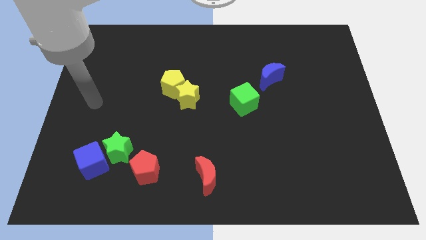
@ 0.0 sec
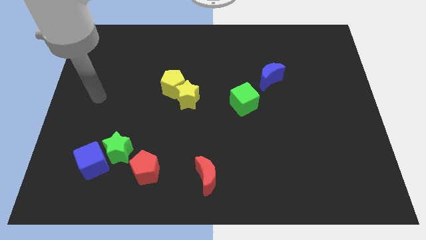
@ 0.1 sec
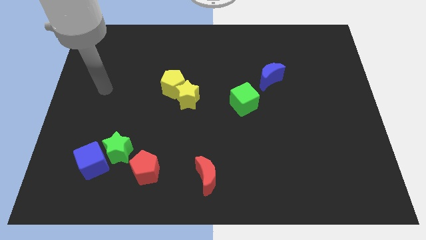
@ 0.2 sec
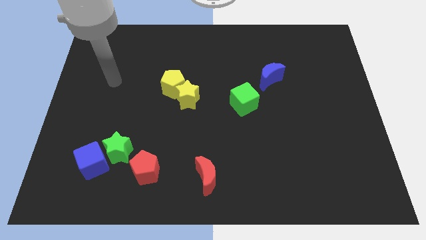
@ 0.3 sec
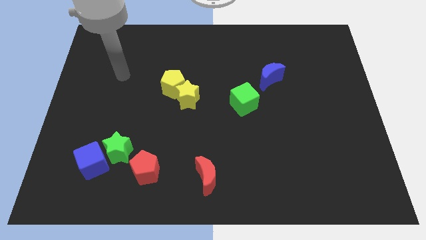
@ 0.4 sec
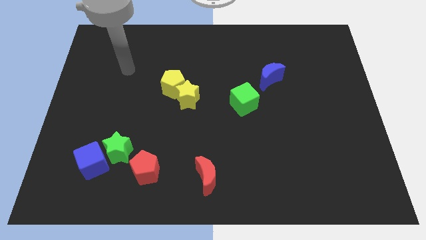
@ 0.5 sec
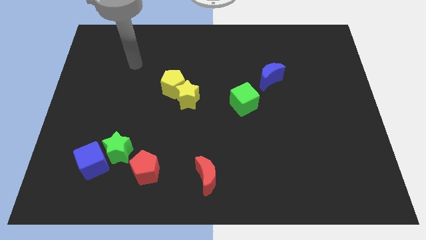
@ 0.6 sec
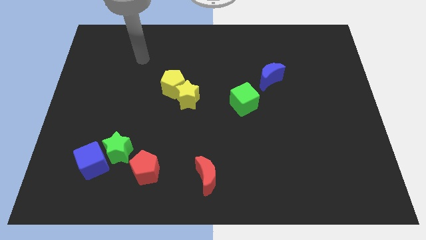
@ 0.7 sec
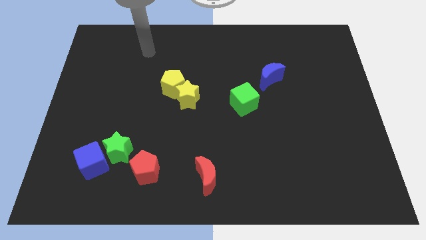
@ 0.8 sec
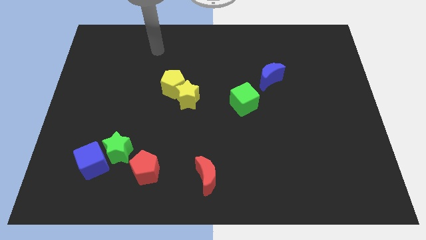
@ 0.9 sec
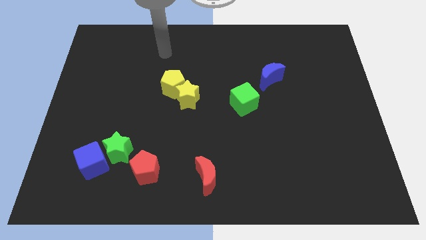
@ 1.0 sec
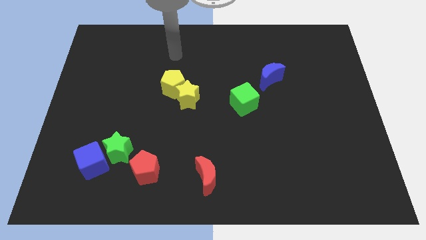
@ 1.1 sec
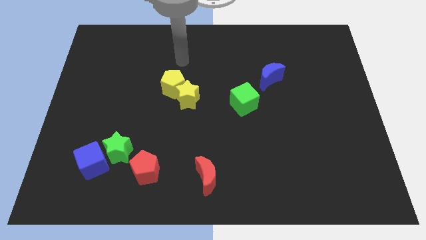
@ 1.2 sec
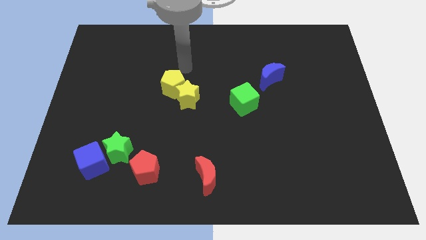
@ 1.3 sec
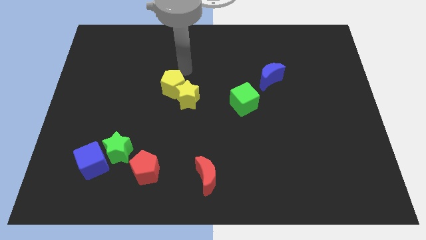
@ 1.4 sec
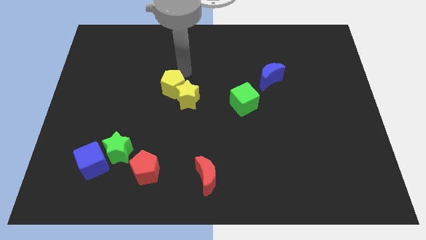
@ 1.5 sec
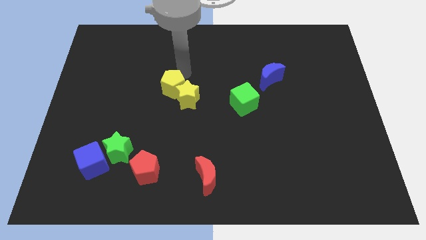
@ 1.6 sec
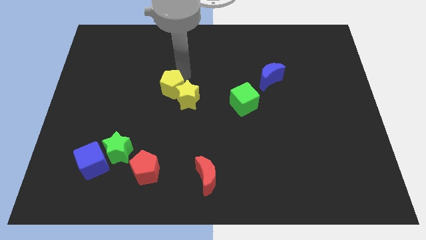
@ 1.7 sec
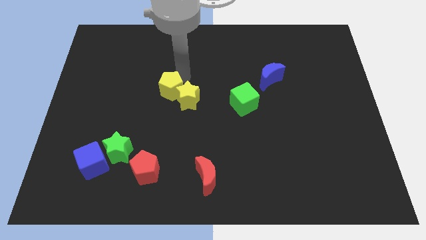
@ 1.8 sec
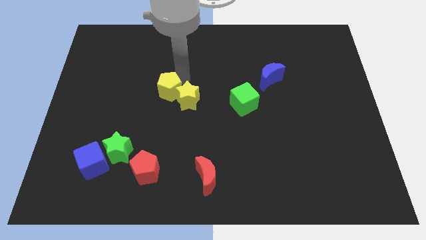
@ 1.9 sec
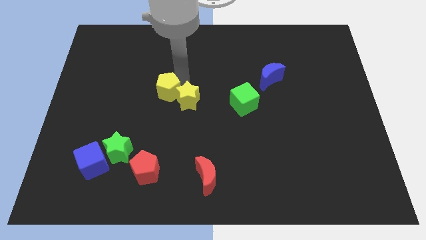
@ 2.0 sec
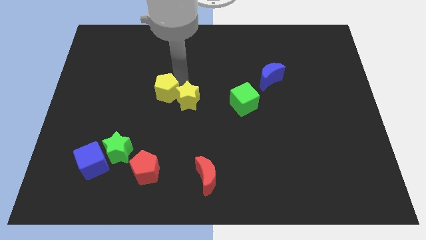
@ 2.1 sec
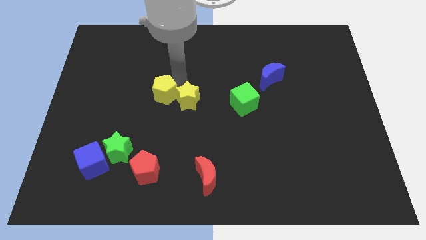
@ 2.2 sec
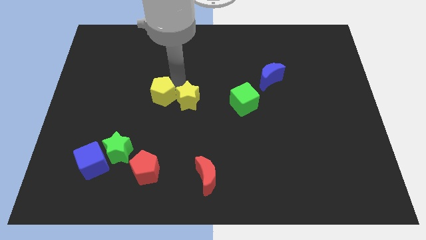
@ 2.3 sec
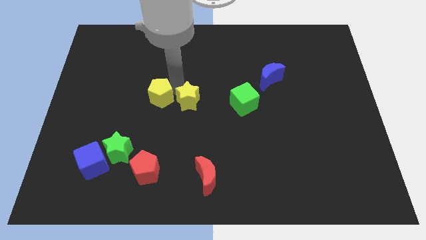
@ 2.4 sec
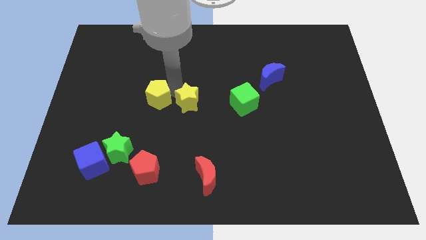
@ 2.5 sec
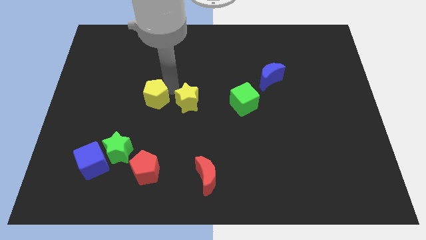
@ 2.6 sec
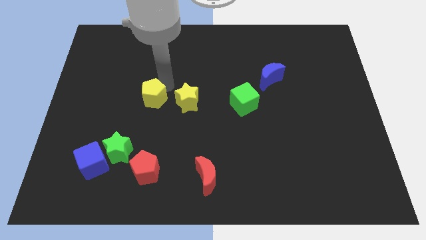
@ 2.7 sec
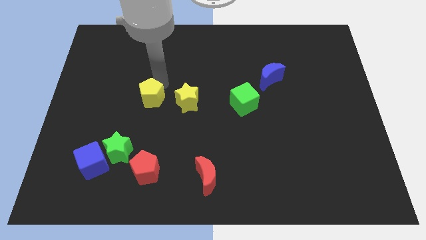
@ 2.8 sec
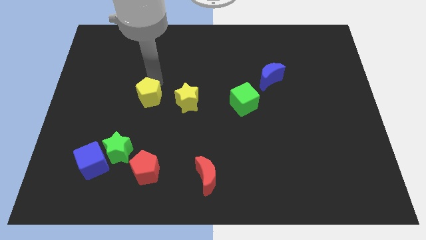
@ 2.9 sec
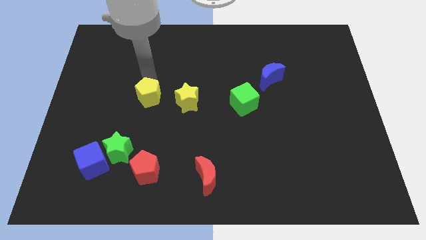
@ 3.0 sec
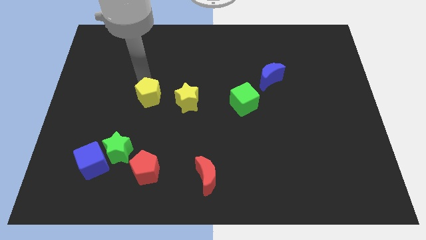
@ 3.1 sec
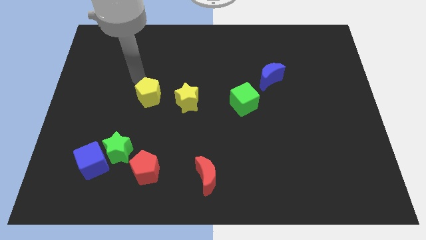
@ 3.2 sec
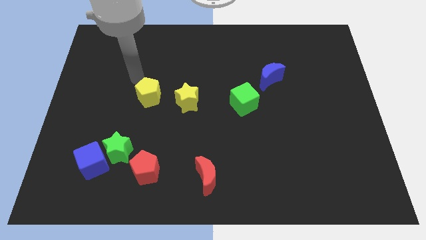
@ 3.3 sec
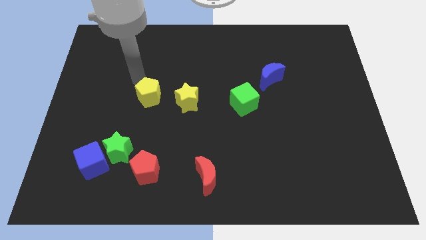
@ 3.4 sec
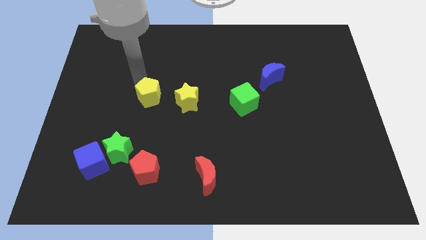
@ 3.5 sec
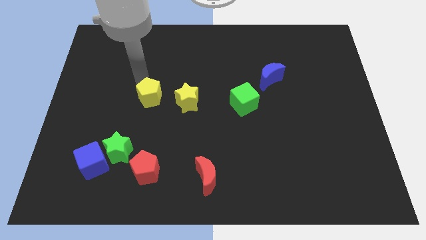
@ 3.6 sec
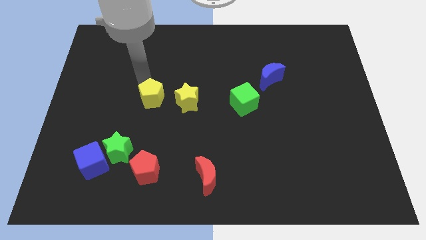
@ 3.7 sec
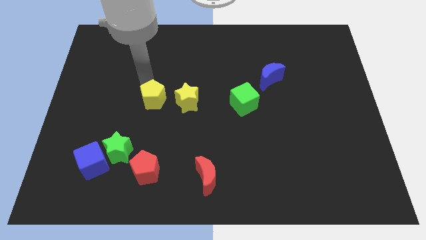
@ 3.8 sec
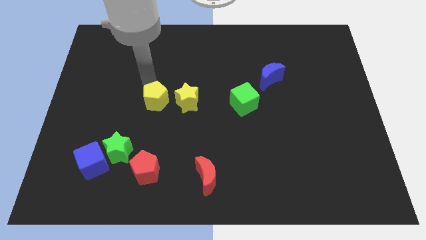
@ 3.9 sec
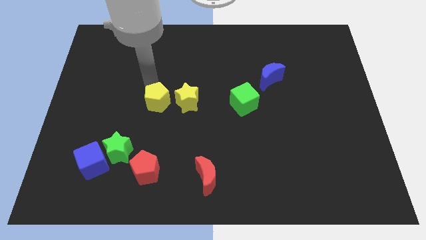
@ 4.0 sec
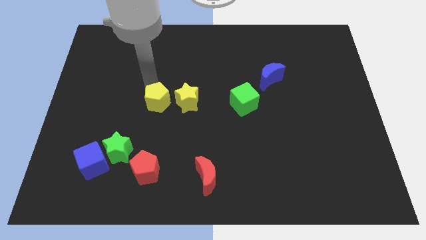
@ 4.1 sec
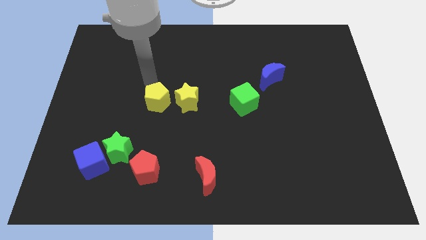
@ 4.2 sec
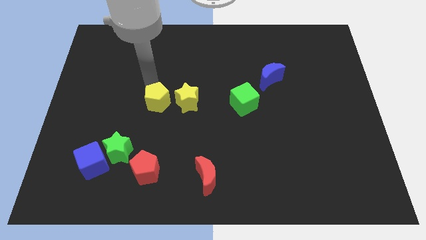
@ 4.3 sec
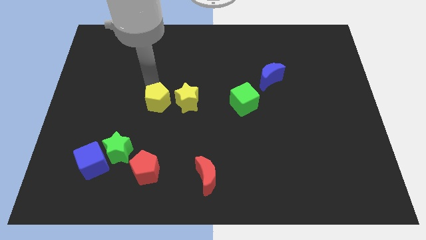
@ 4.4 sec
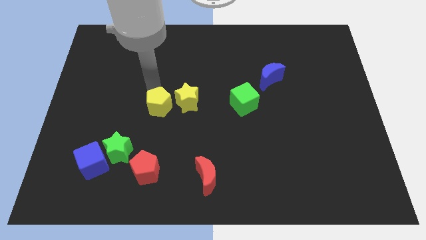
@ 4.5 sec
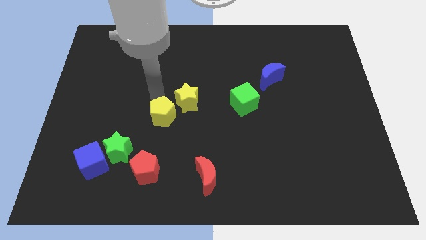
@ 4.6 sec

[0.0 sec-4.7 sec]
slightly push the yellow pentagon downwards

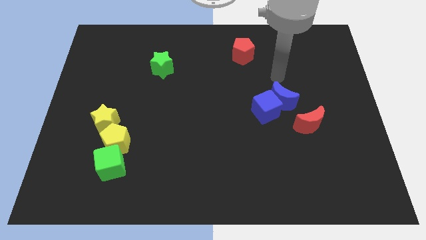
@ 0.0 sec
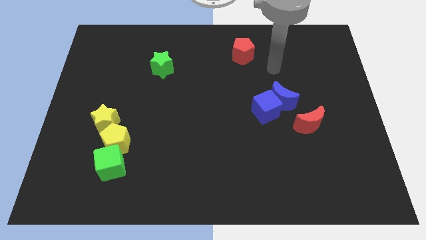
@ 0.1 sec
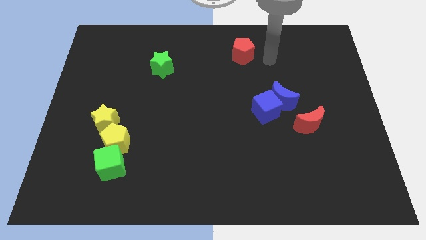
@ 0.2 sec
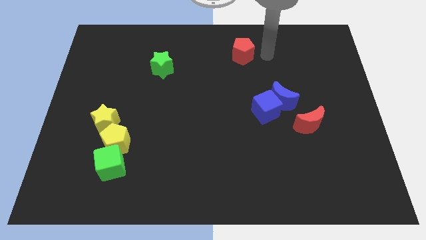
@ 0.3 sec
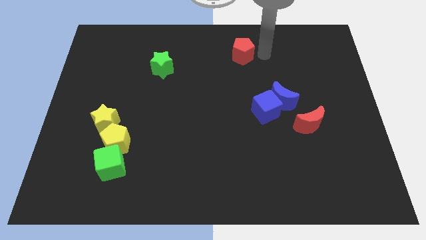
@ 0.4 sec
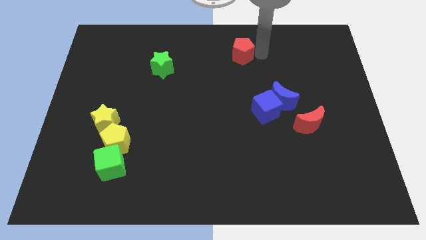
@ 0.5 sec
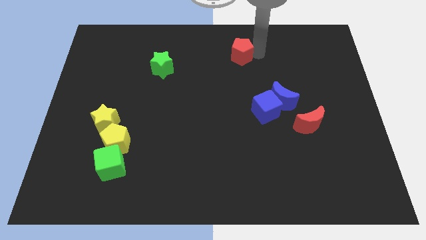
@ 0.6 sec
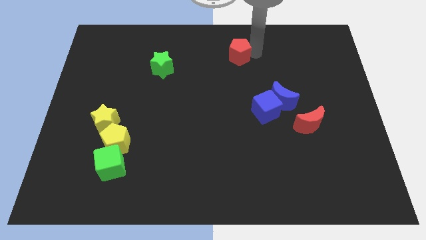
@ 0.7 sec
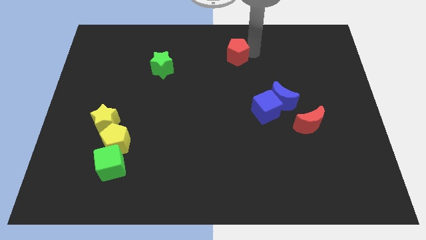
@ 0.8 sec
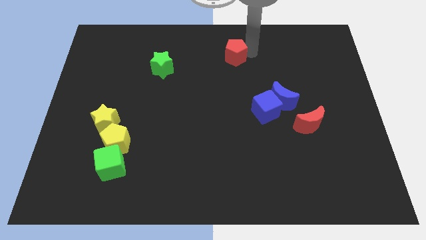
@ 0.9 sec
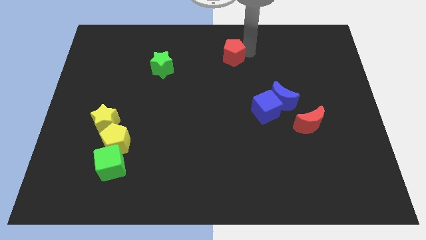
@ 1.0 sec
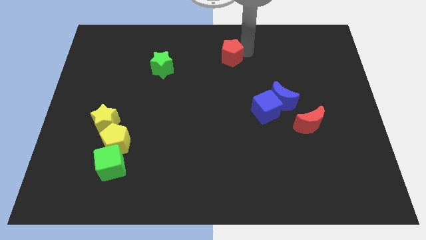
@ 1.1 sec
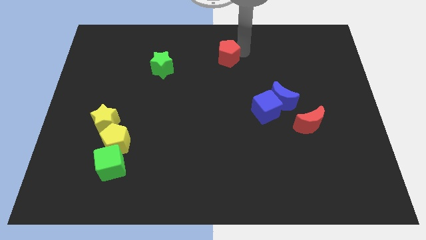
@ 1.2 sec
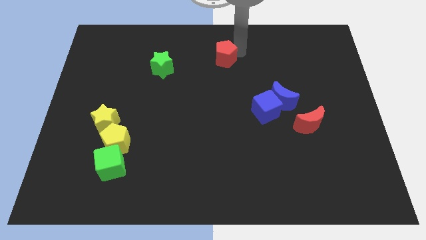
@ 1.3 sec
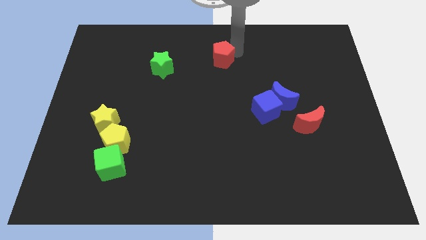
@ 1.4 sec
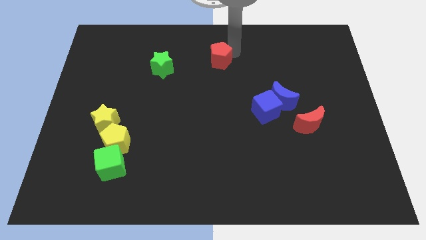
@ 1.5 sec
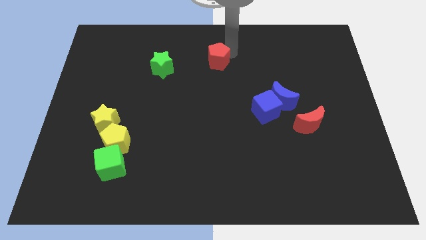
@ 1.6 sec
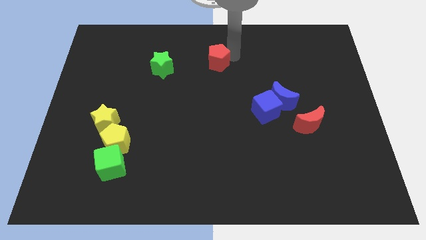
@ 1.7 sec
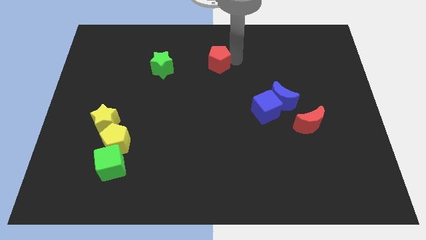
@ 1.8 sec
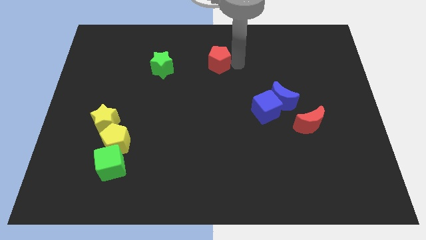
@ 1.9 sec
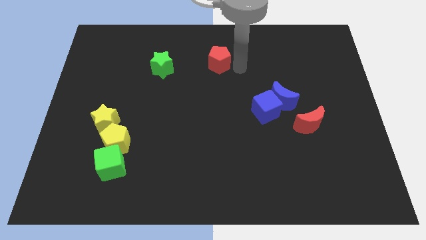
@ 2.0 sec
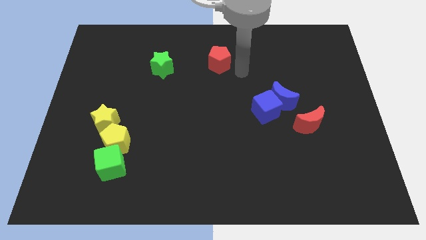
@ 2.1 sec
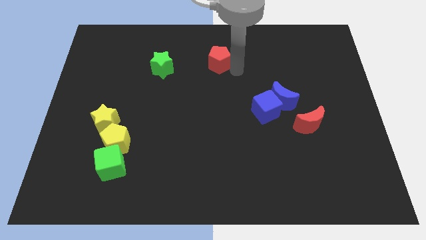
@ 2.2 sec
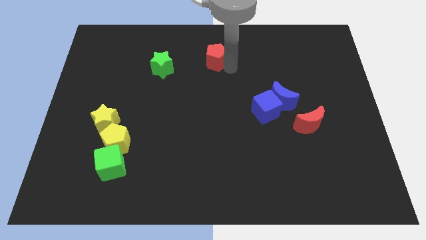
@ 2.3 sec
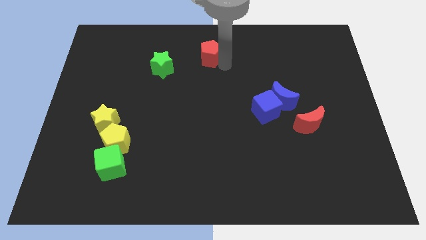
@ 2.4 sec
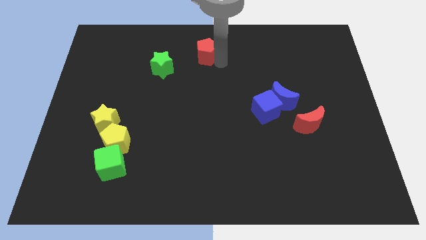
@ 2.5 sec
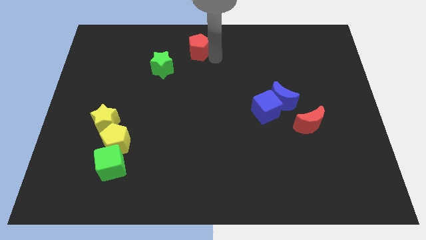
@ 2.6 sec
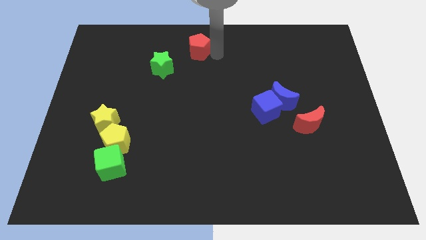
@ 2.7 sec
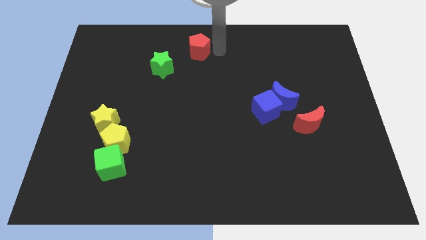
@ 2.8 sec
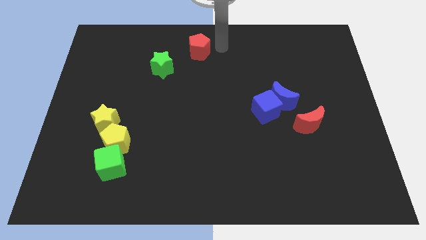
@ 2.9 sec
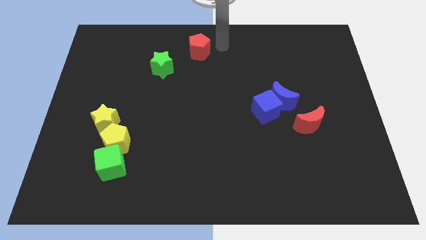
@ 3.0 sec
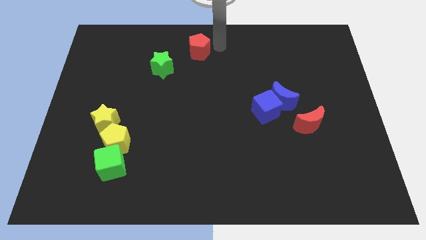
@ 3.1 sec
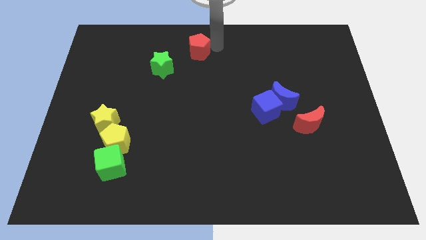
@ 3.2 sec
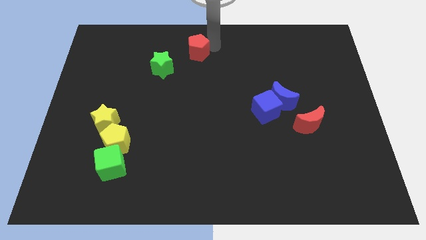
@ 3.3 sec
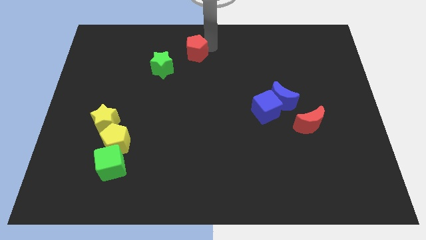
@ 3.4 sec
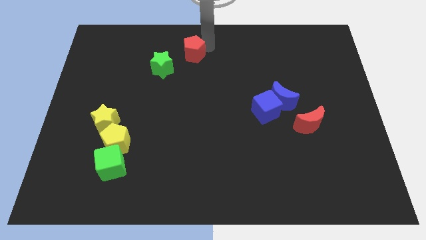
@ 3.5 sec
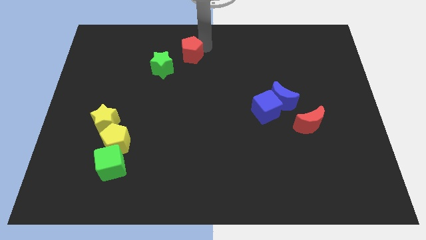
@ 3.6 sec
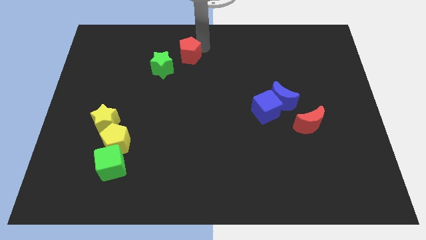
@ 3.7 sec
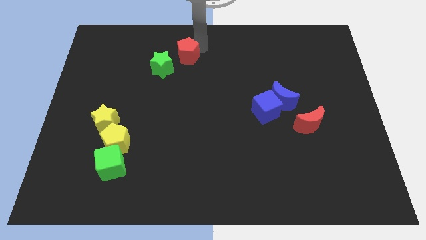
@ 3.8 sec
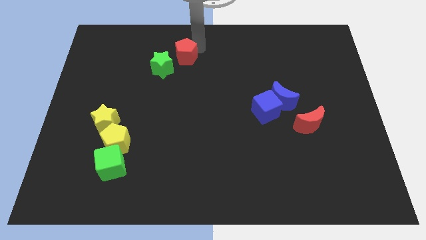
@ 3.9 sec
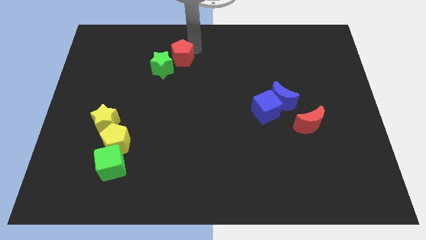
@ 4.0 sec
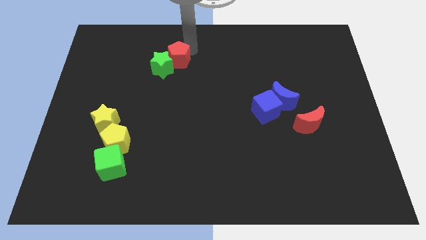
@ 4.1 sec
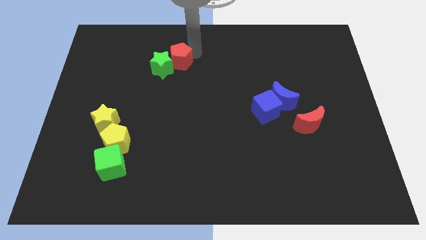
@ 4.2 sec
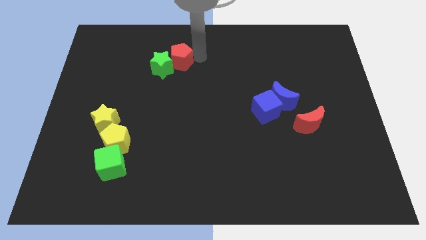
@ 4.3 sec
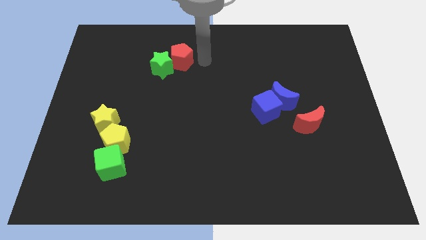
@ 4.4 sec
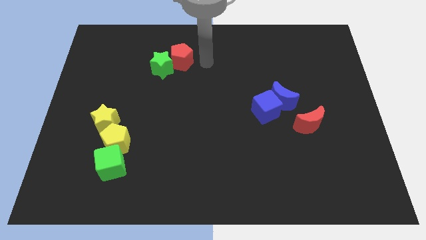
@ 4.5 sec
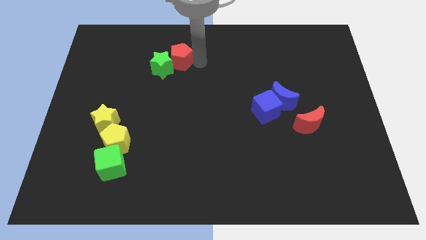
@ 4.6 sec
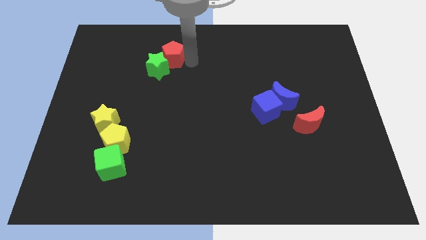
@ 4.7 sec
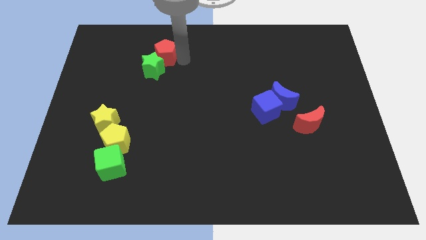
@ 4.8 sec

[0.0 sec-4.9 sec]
slide the red pentagon to the left
